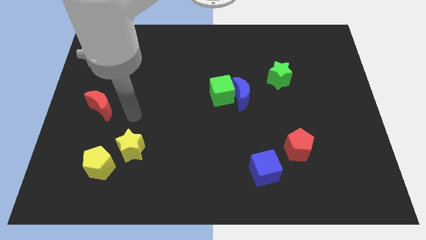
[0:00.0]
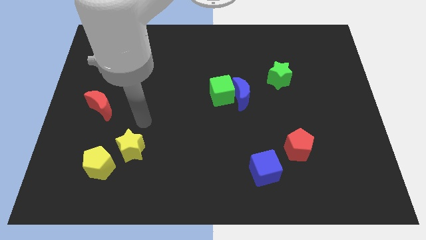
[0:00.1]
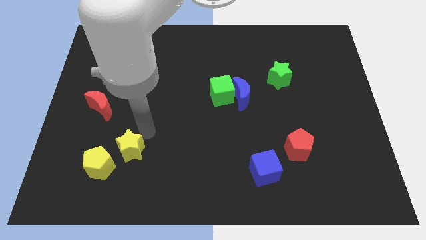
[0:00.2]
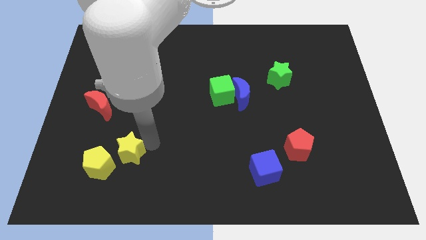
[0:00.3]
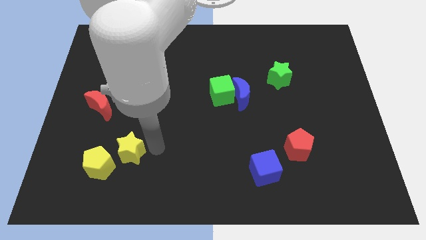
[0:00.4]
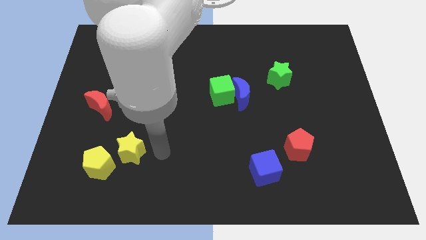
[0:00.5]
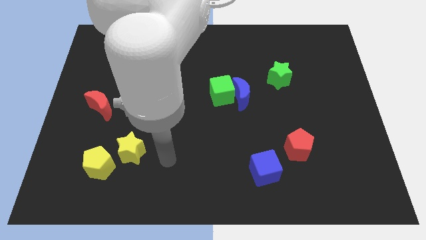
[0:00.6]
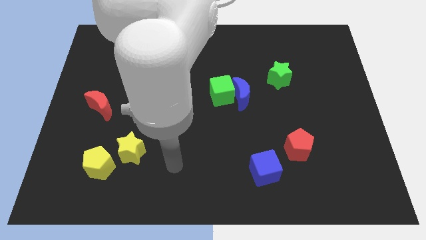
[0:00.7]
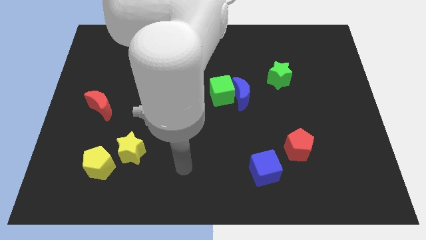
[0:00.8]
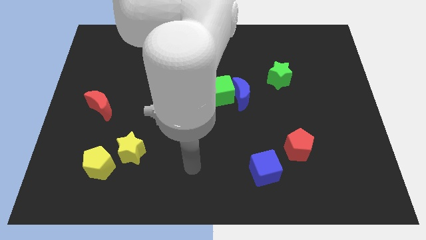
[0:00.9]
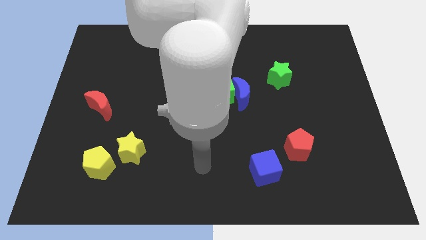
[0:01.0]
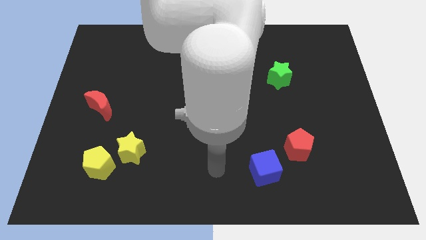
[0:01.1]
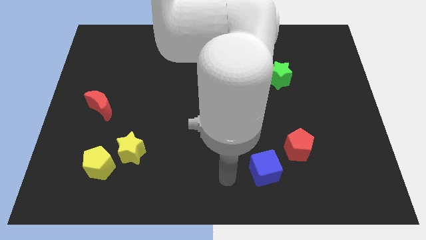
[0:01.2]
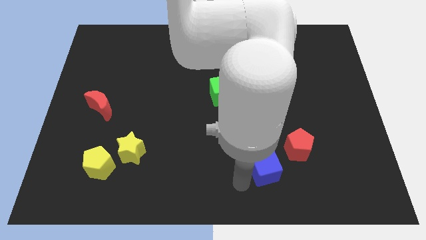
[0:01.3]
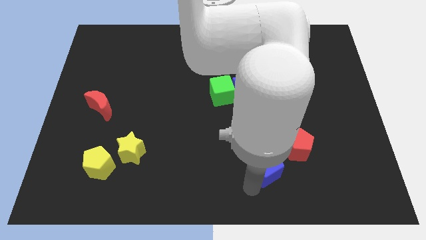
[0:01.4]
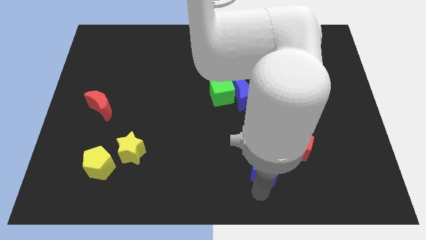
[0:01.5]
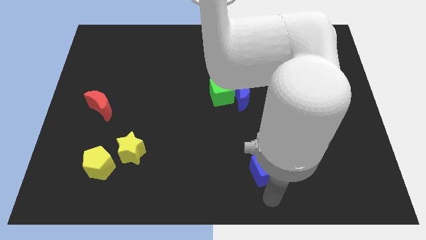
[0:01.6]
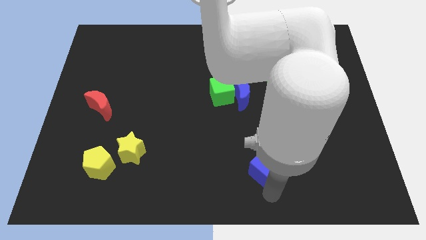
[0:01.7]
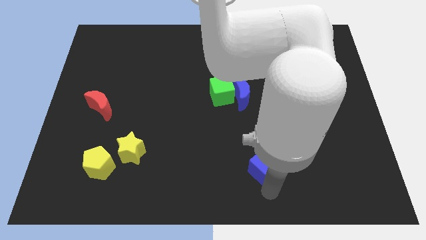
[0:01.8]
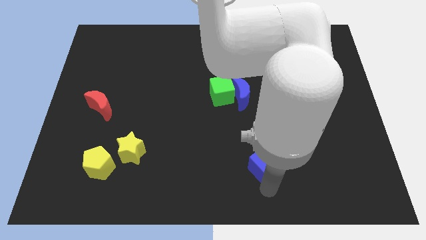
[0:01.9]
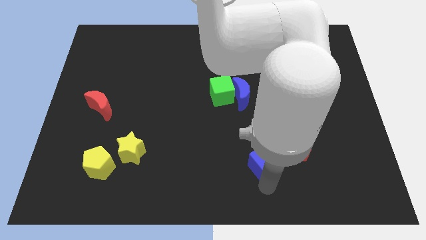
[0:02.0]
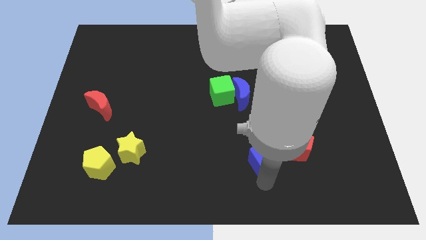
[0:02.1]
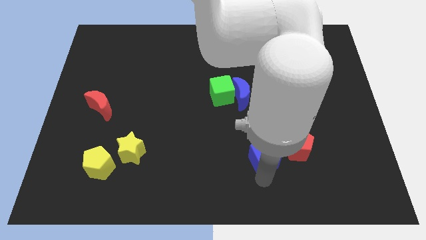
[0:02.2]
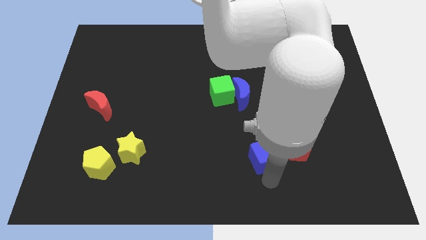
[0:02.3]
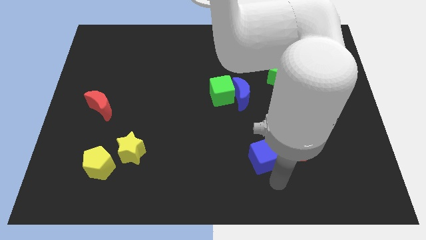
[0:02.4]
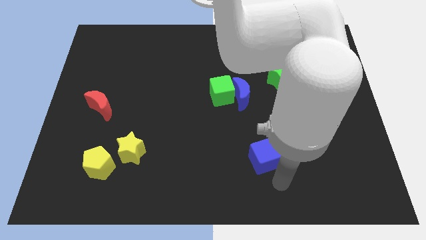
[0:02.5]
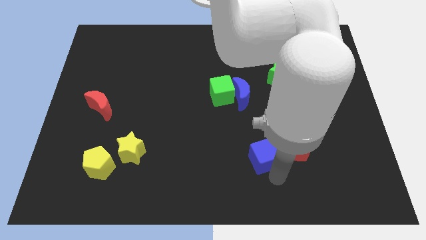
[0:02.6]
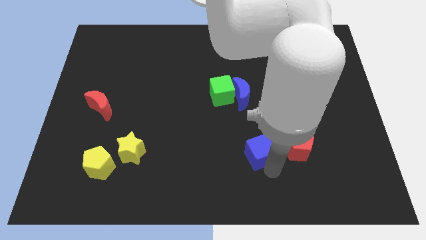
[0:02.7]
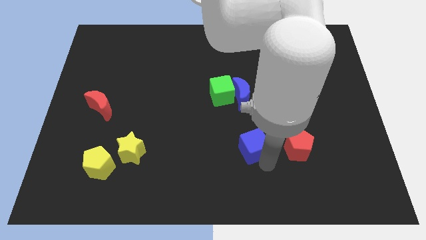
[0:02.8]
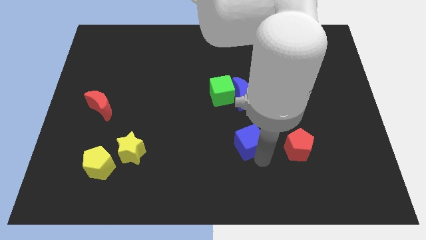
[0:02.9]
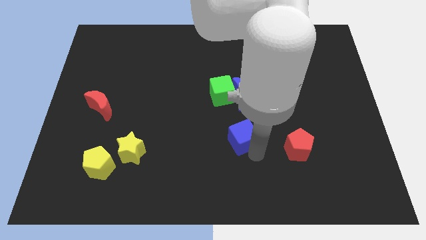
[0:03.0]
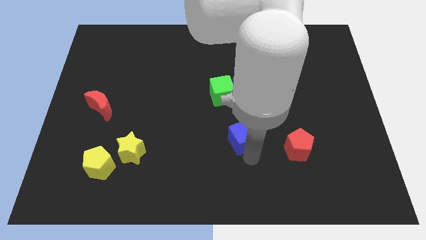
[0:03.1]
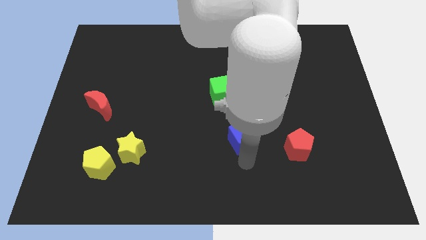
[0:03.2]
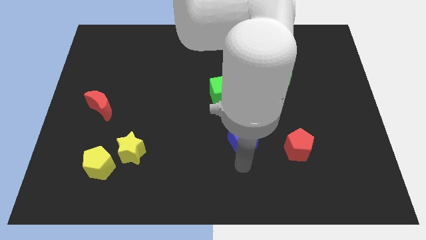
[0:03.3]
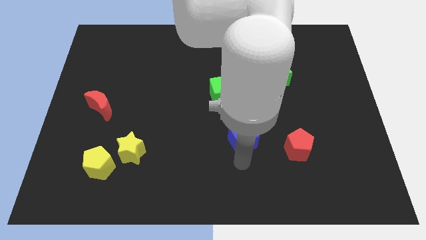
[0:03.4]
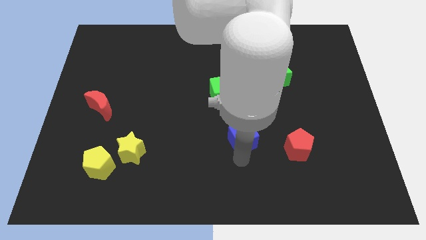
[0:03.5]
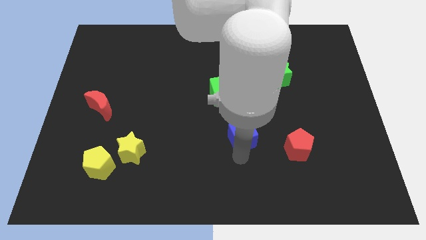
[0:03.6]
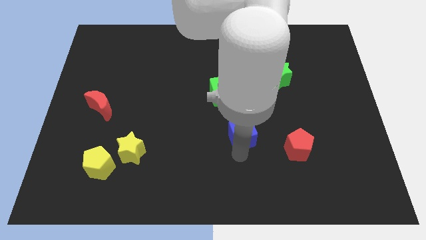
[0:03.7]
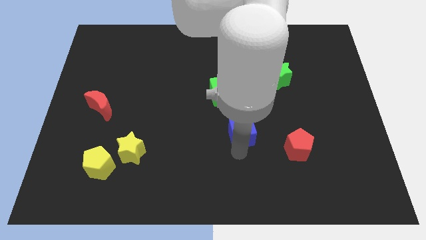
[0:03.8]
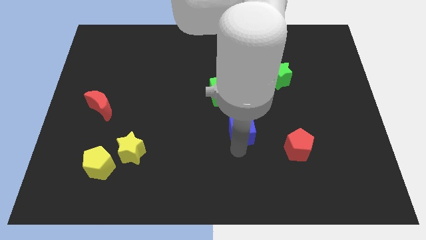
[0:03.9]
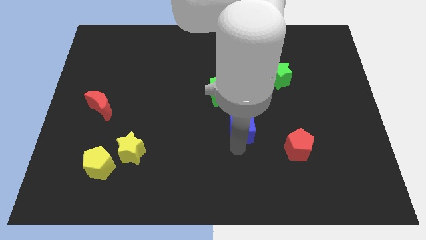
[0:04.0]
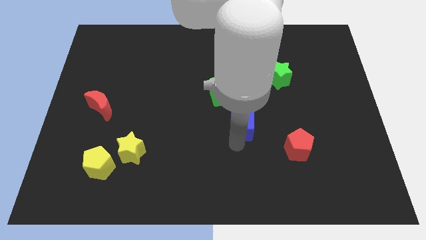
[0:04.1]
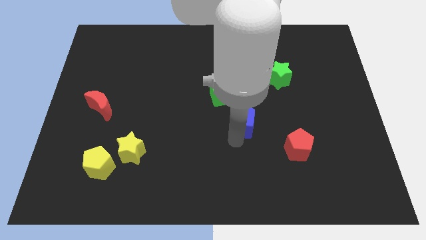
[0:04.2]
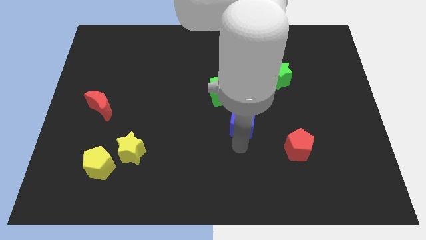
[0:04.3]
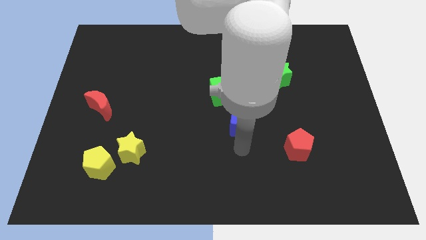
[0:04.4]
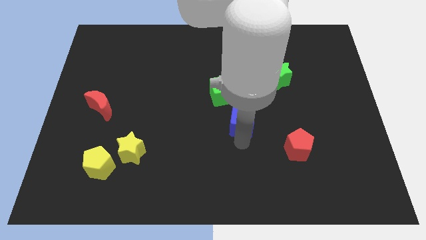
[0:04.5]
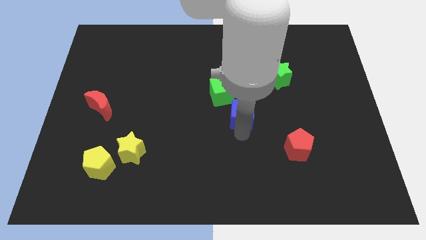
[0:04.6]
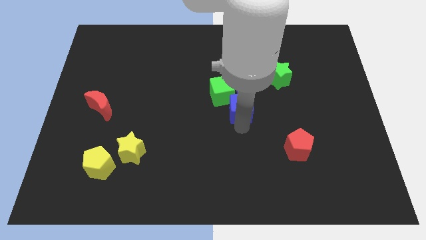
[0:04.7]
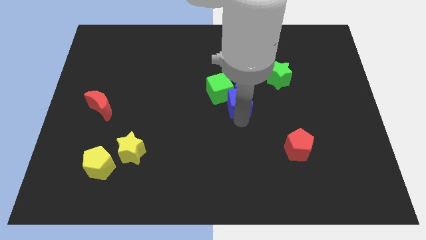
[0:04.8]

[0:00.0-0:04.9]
put the blue cube to the blue moon

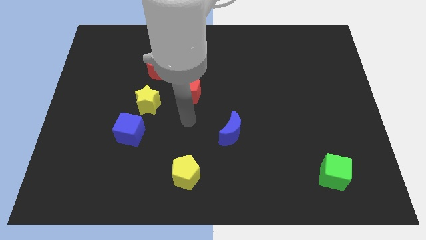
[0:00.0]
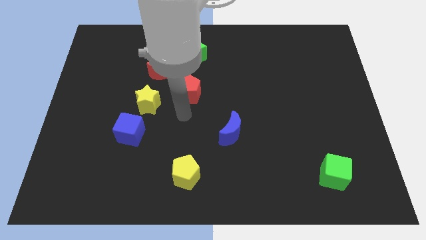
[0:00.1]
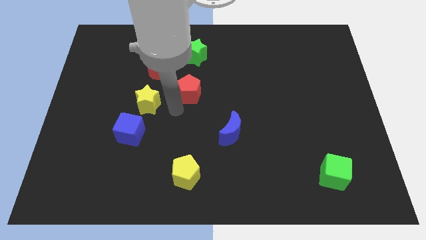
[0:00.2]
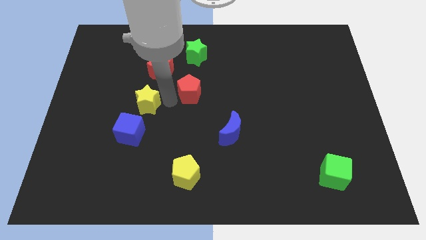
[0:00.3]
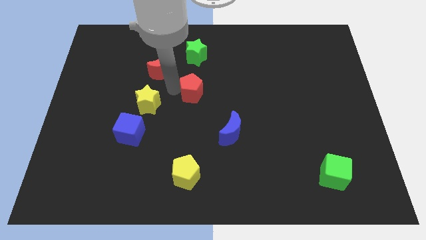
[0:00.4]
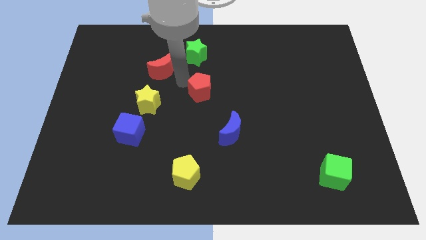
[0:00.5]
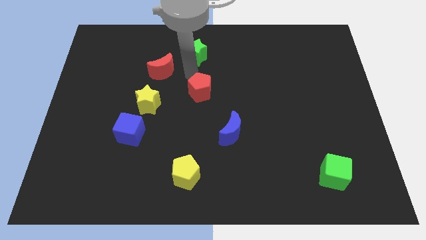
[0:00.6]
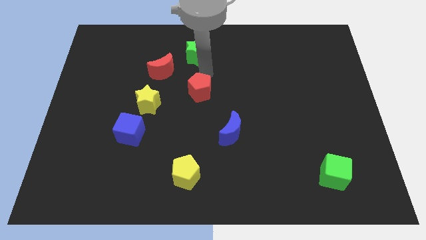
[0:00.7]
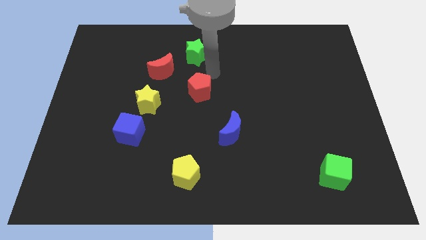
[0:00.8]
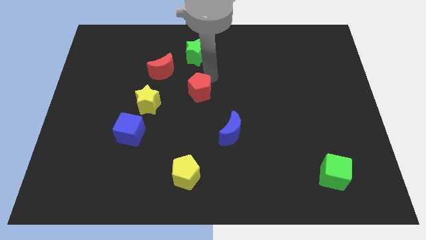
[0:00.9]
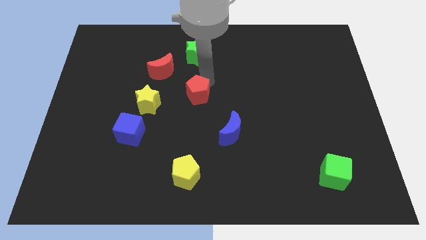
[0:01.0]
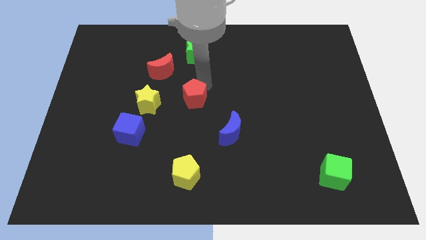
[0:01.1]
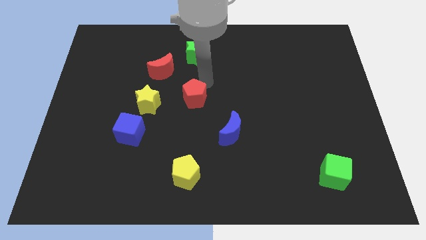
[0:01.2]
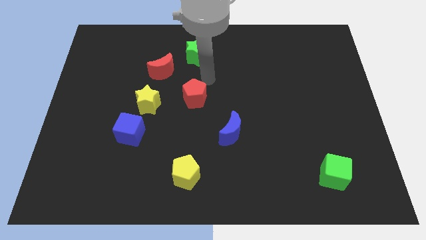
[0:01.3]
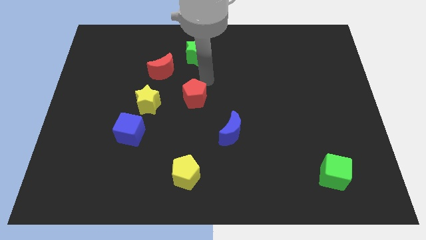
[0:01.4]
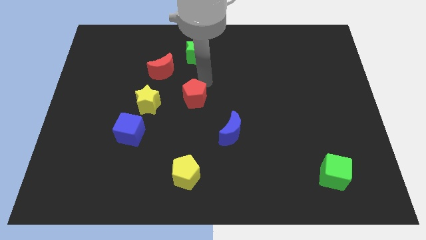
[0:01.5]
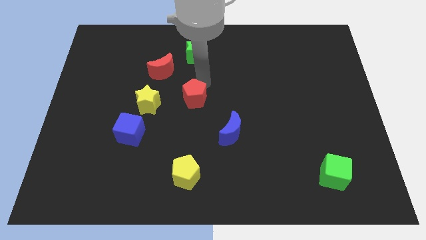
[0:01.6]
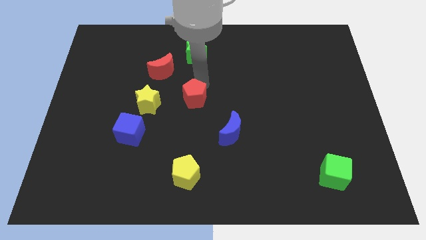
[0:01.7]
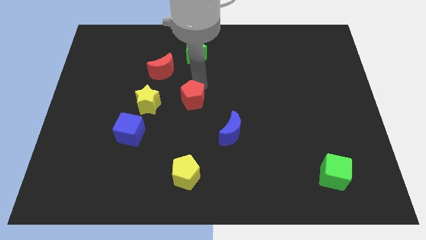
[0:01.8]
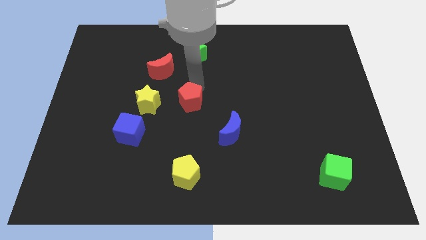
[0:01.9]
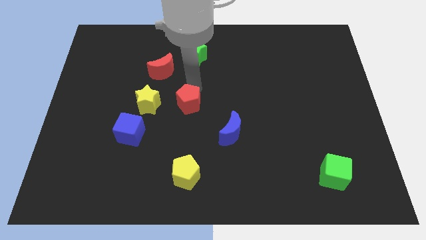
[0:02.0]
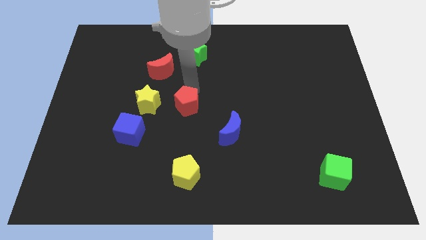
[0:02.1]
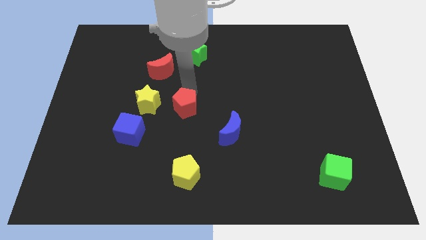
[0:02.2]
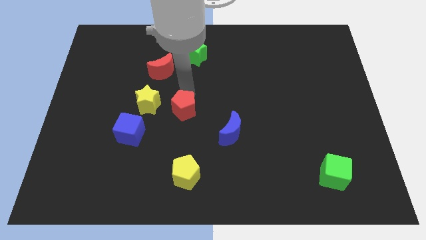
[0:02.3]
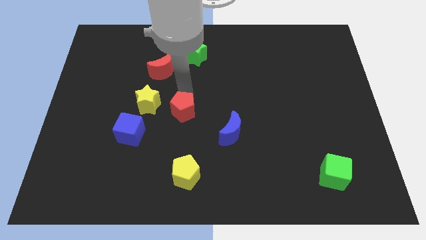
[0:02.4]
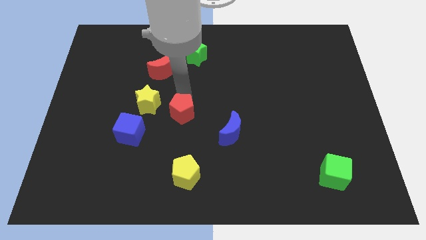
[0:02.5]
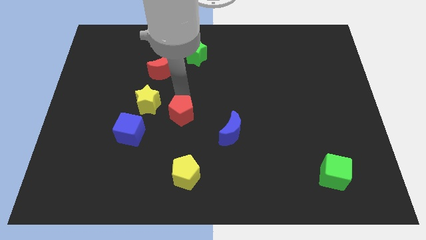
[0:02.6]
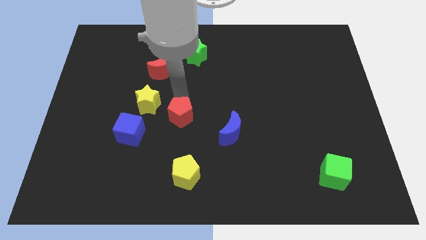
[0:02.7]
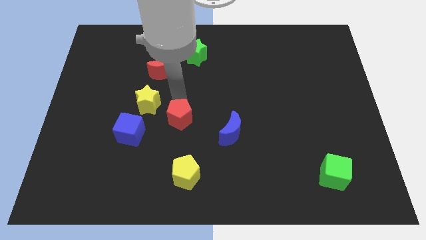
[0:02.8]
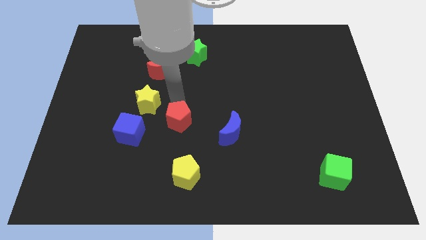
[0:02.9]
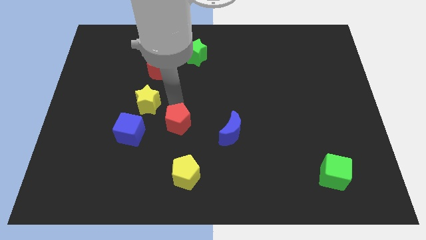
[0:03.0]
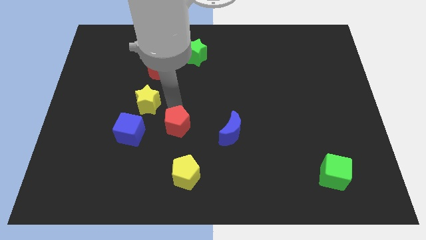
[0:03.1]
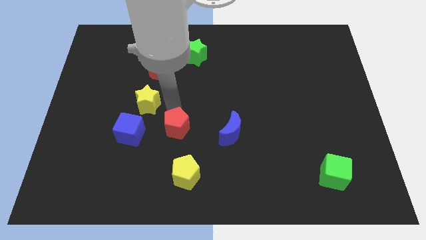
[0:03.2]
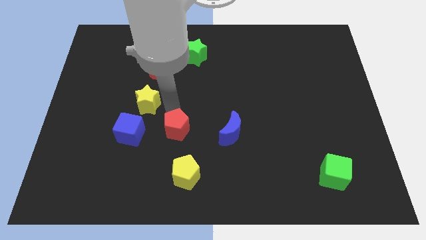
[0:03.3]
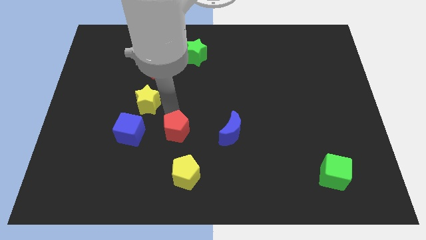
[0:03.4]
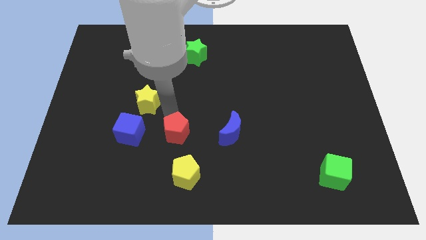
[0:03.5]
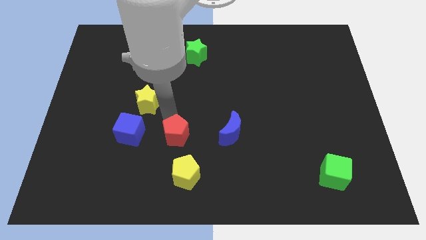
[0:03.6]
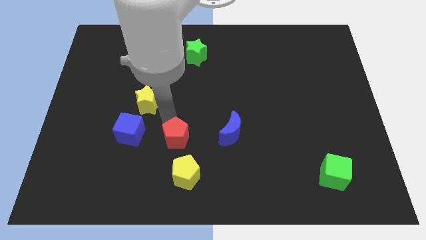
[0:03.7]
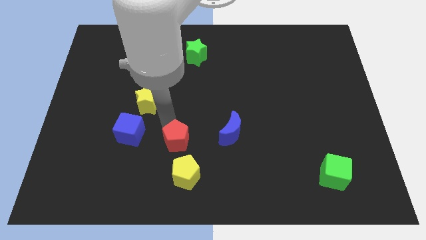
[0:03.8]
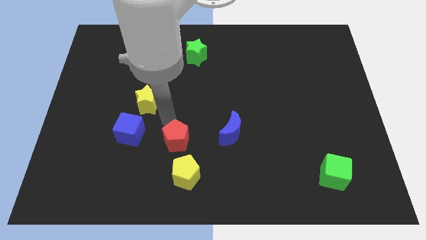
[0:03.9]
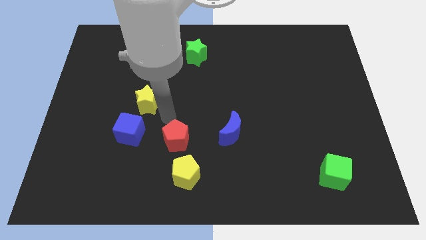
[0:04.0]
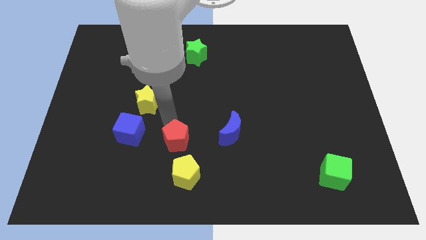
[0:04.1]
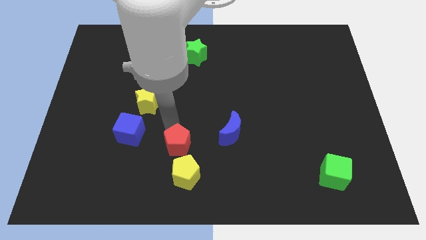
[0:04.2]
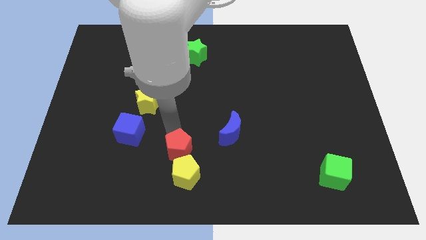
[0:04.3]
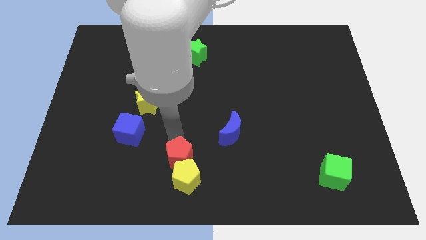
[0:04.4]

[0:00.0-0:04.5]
slide the red pentagon to the yellow pentagon
